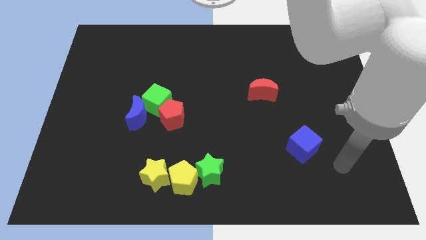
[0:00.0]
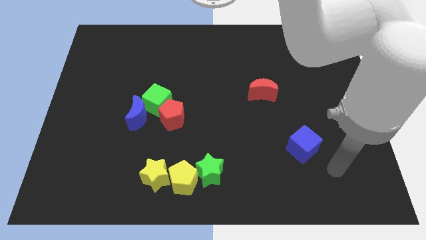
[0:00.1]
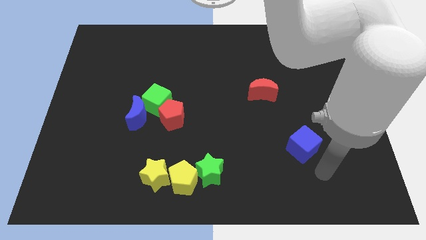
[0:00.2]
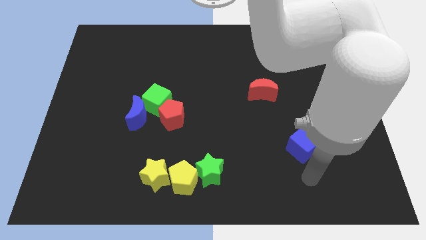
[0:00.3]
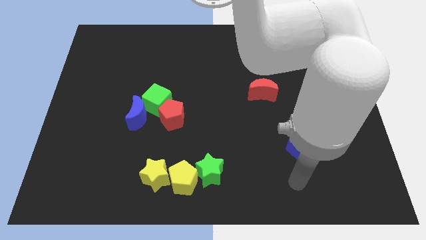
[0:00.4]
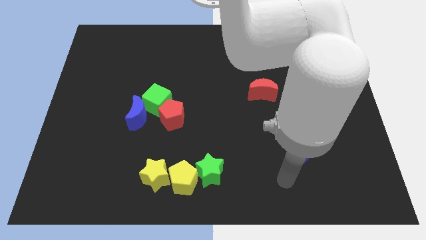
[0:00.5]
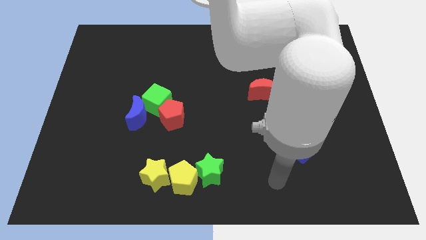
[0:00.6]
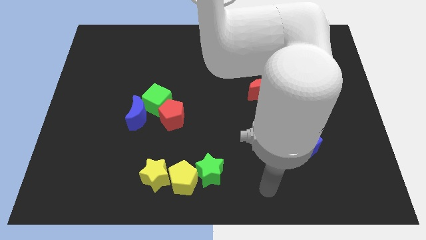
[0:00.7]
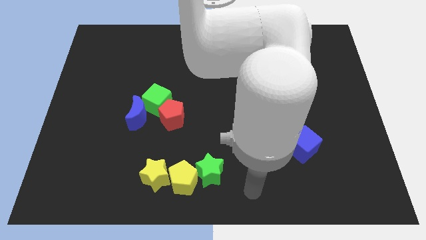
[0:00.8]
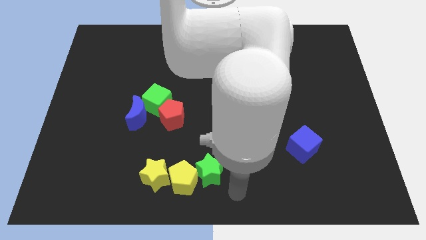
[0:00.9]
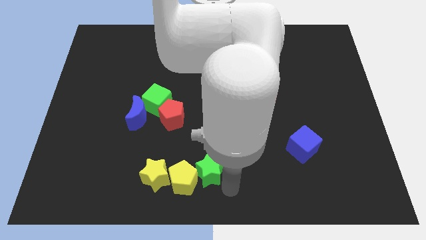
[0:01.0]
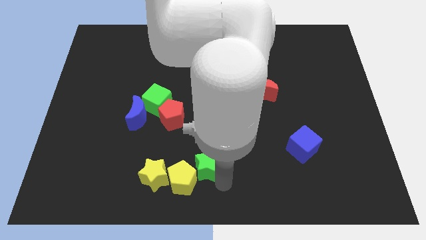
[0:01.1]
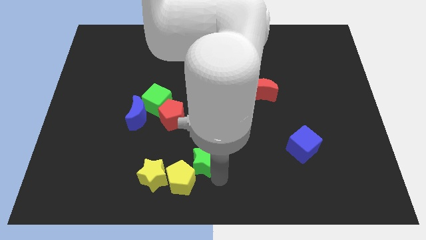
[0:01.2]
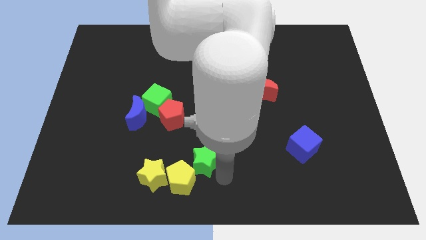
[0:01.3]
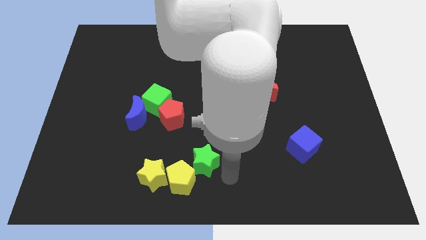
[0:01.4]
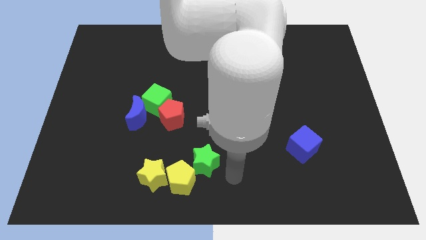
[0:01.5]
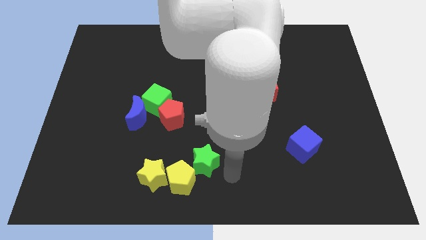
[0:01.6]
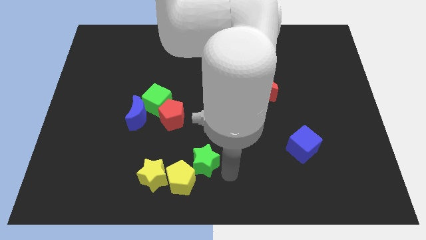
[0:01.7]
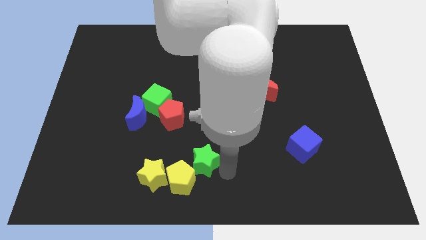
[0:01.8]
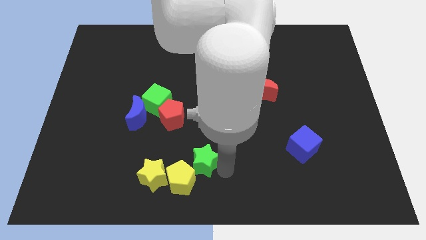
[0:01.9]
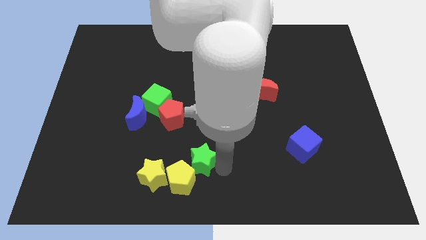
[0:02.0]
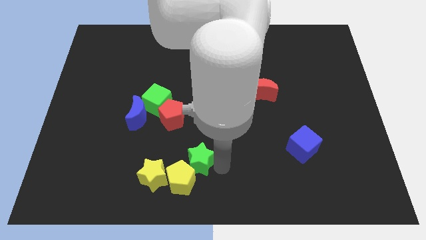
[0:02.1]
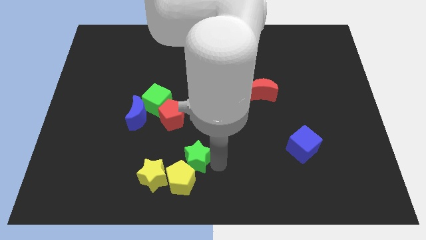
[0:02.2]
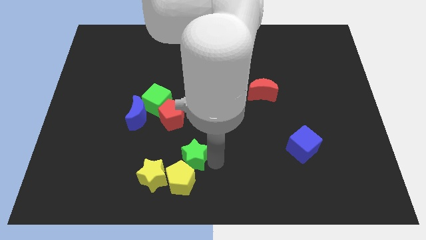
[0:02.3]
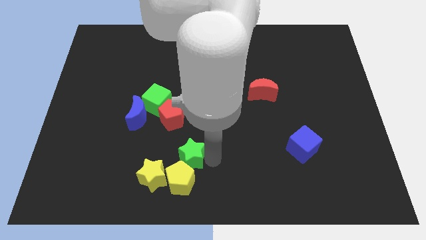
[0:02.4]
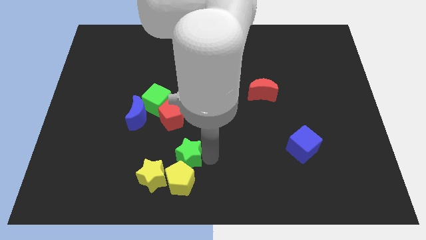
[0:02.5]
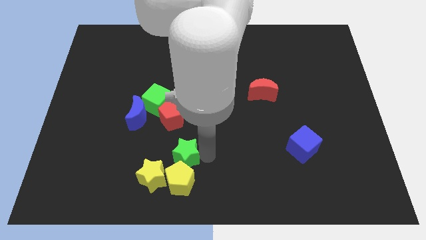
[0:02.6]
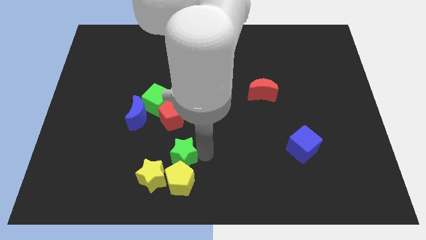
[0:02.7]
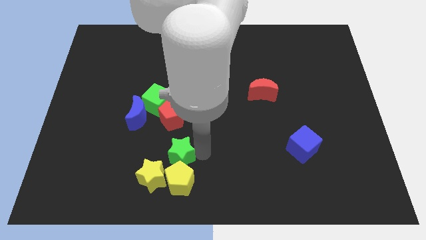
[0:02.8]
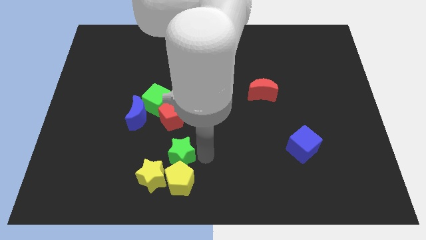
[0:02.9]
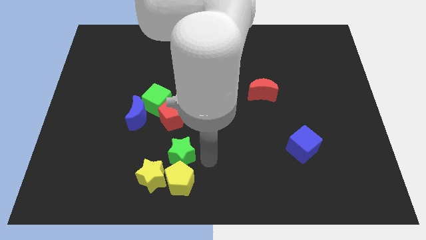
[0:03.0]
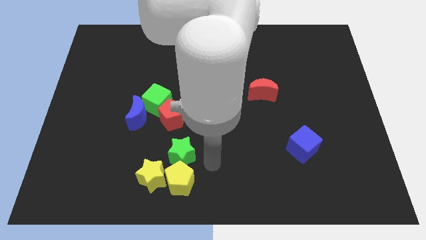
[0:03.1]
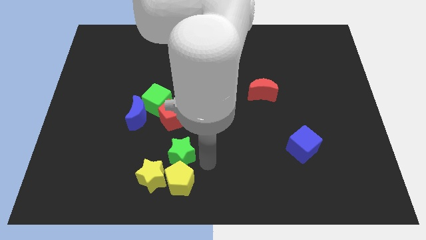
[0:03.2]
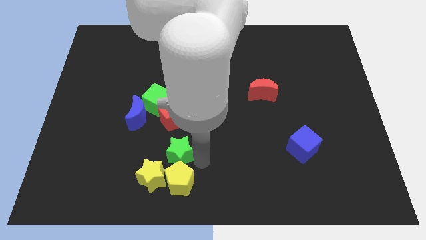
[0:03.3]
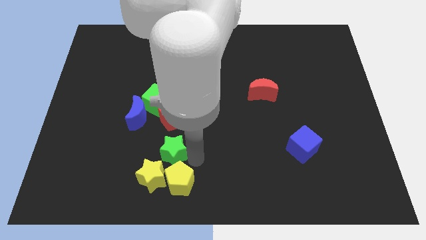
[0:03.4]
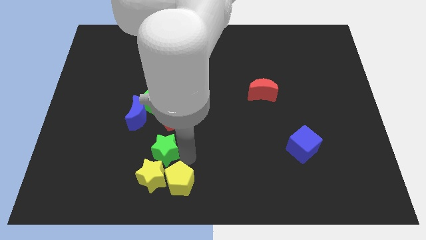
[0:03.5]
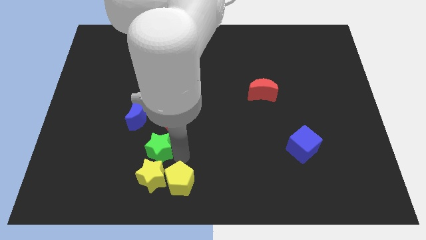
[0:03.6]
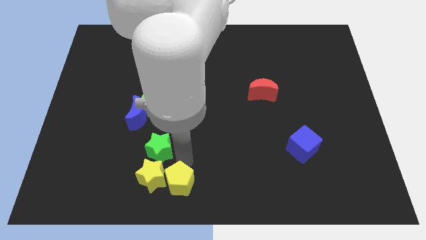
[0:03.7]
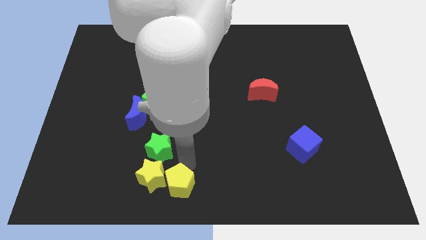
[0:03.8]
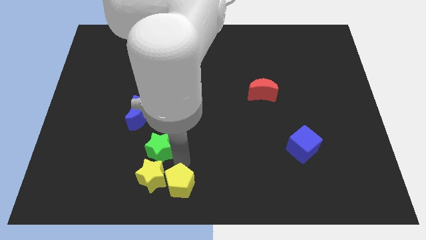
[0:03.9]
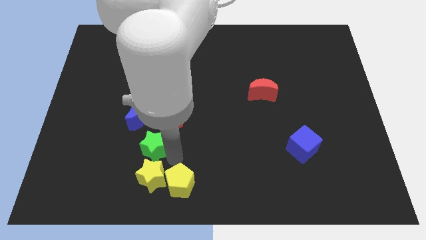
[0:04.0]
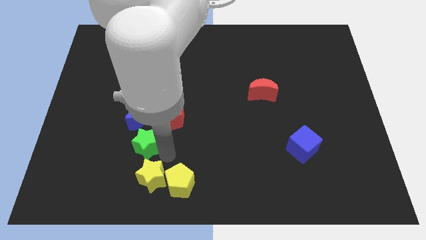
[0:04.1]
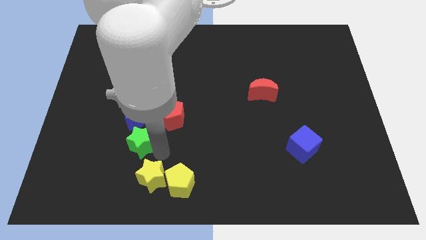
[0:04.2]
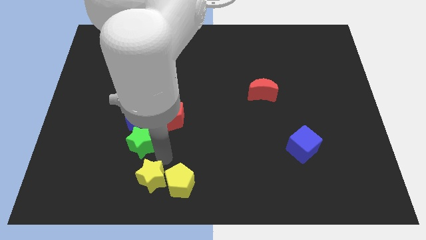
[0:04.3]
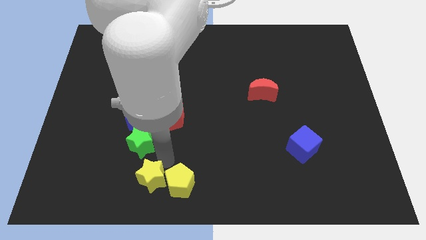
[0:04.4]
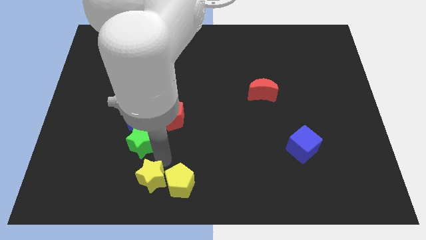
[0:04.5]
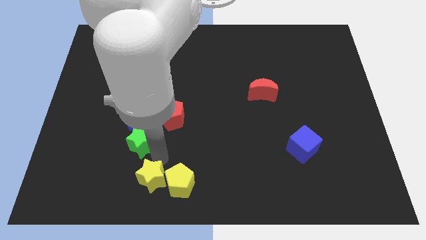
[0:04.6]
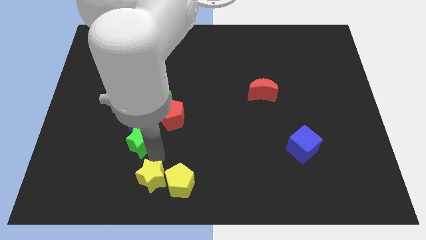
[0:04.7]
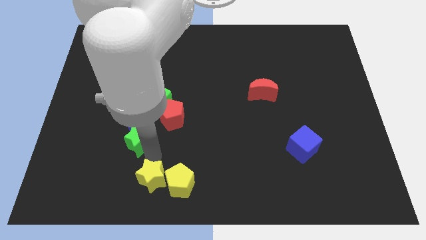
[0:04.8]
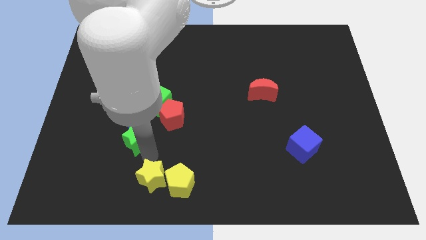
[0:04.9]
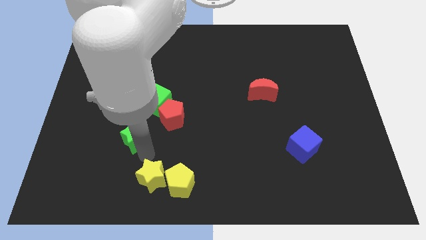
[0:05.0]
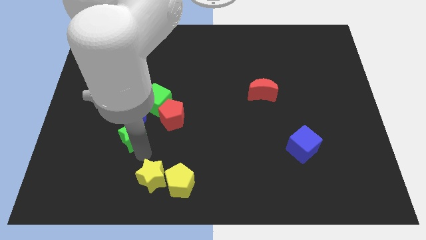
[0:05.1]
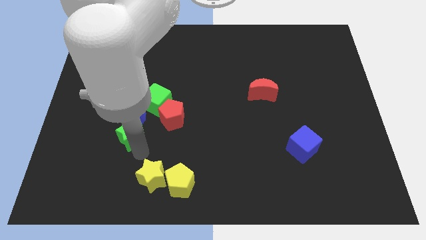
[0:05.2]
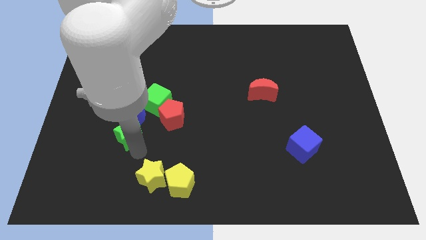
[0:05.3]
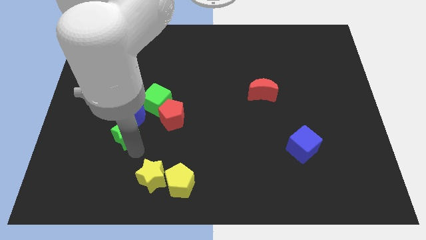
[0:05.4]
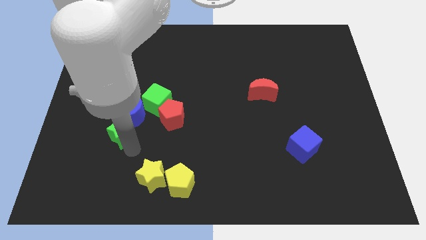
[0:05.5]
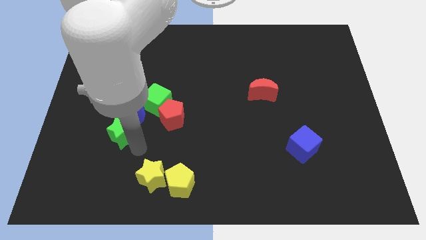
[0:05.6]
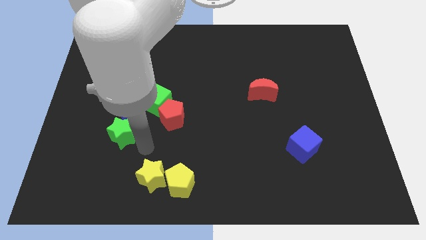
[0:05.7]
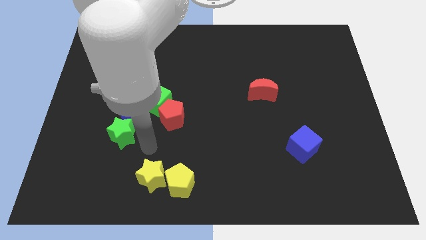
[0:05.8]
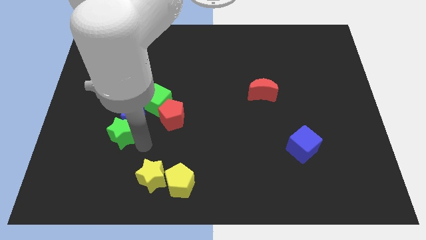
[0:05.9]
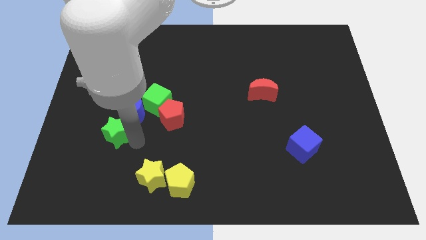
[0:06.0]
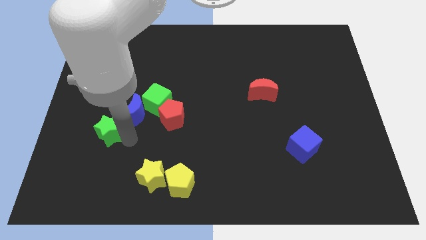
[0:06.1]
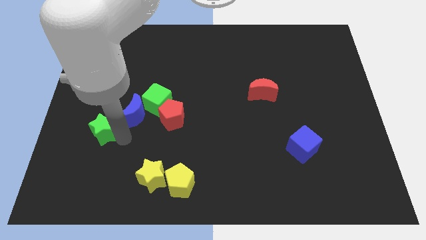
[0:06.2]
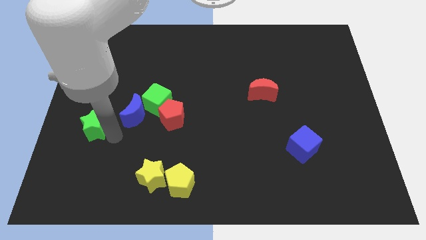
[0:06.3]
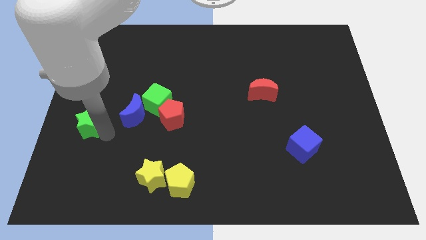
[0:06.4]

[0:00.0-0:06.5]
push the green star to the center left

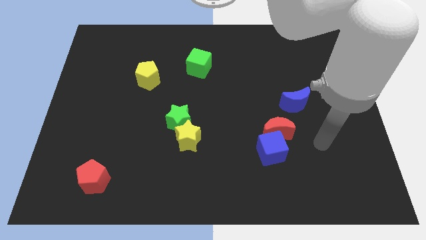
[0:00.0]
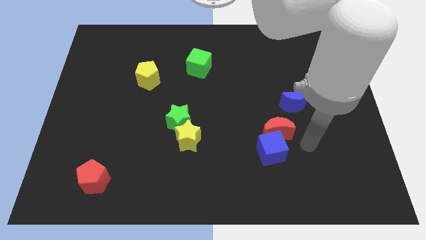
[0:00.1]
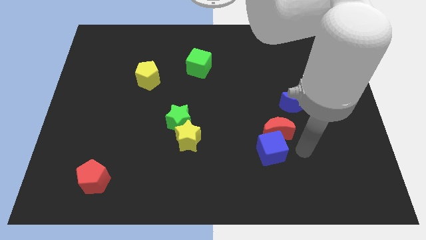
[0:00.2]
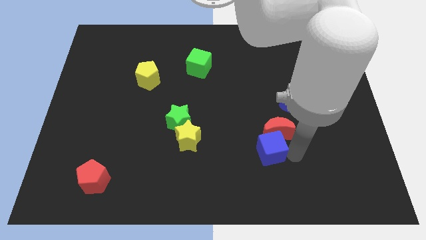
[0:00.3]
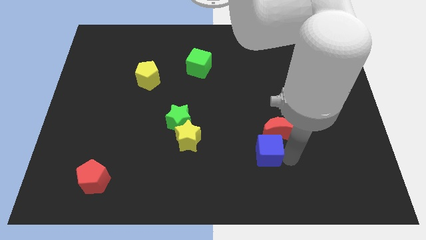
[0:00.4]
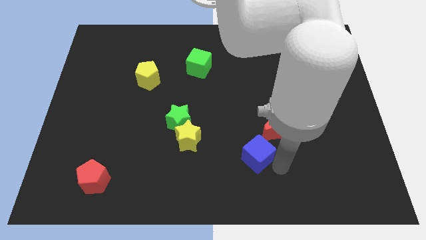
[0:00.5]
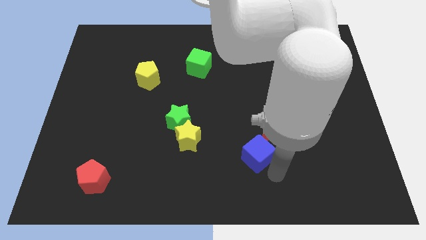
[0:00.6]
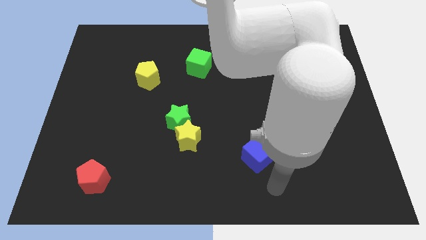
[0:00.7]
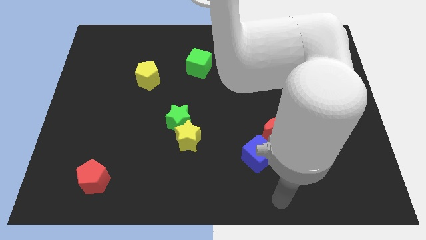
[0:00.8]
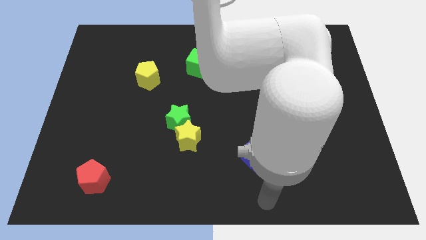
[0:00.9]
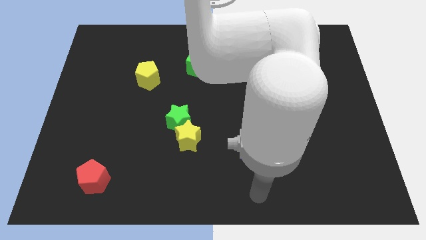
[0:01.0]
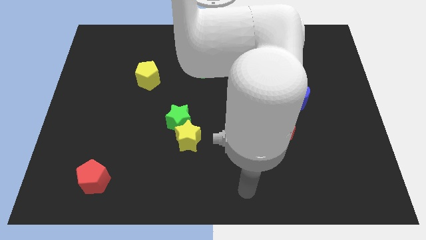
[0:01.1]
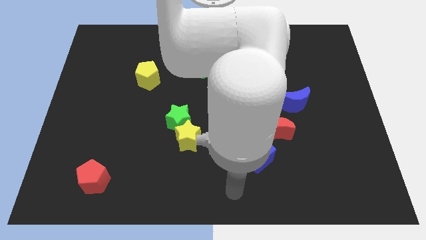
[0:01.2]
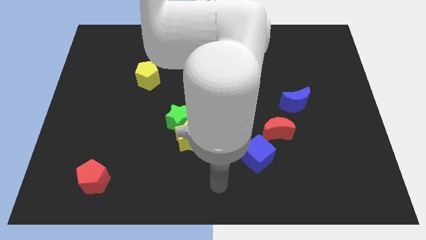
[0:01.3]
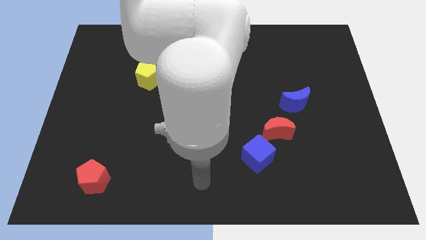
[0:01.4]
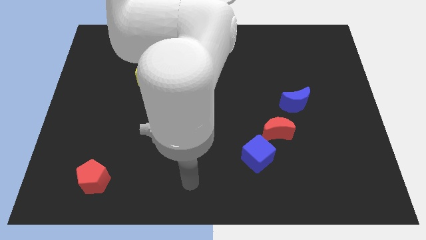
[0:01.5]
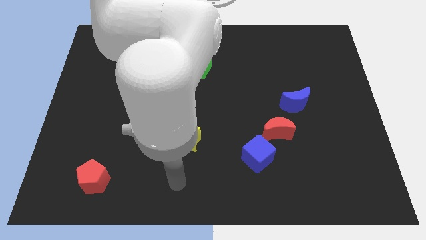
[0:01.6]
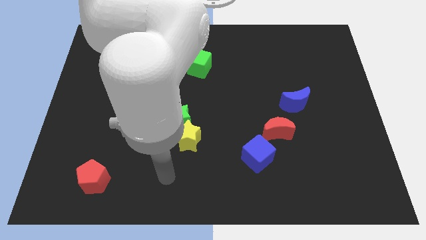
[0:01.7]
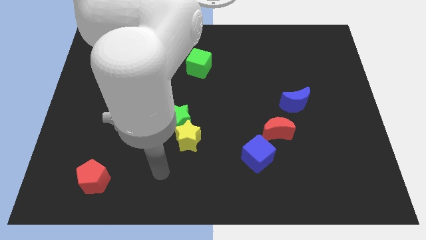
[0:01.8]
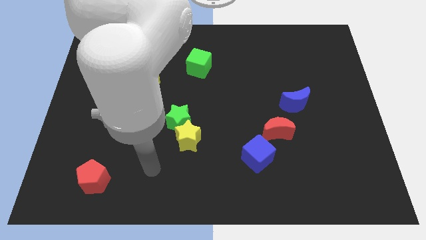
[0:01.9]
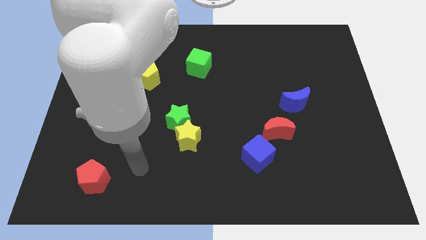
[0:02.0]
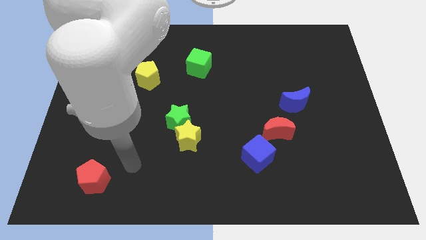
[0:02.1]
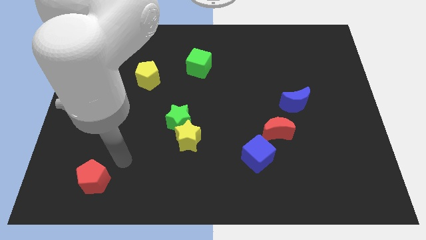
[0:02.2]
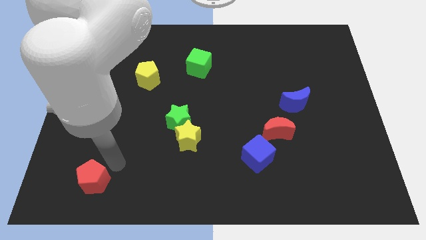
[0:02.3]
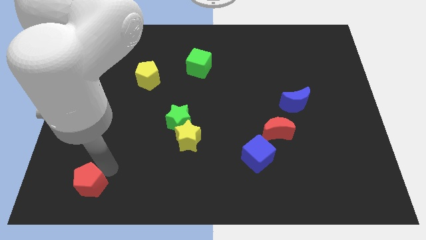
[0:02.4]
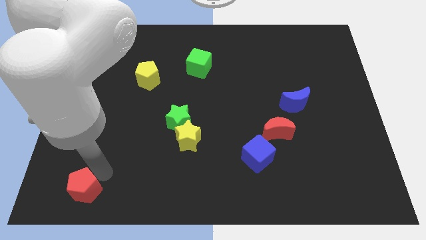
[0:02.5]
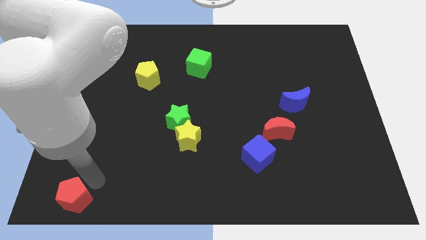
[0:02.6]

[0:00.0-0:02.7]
put the red pentagon to the lower left corner
